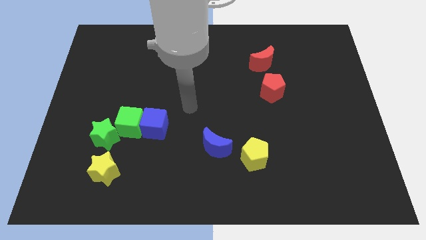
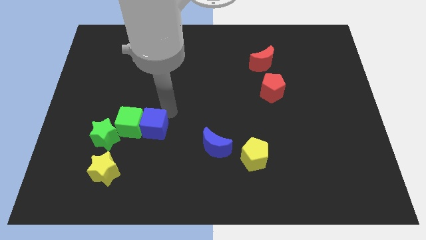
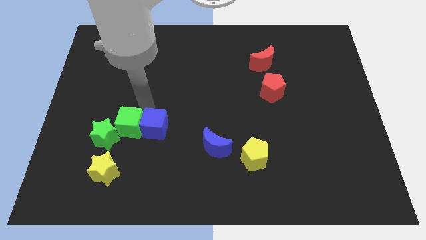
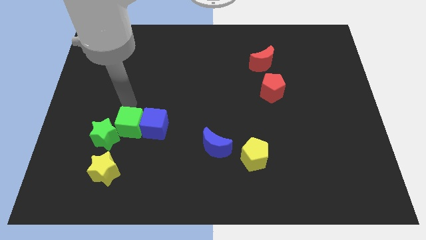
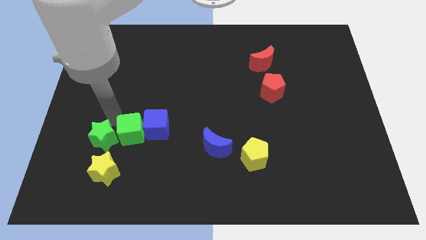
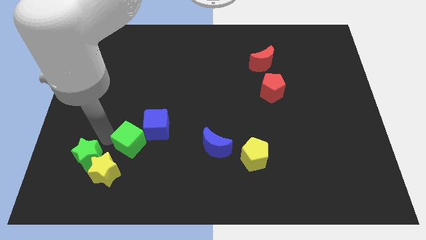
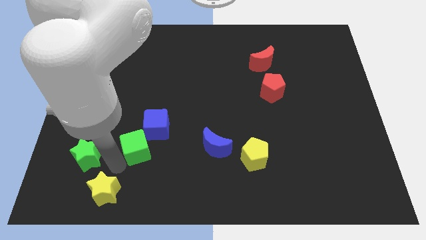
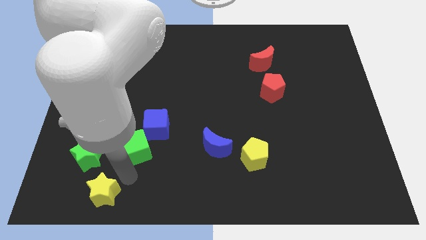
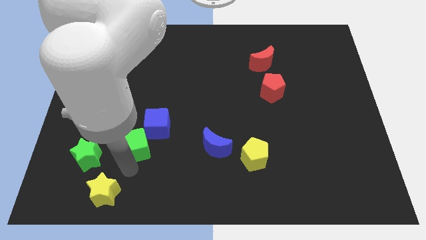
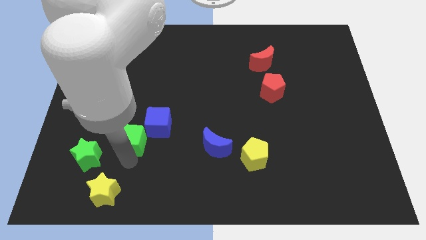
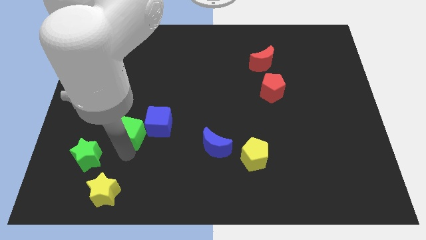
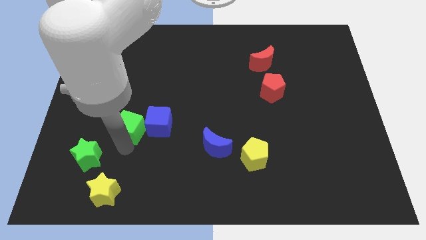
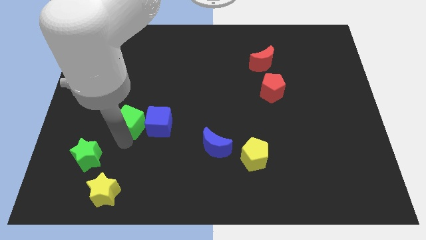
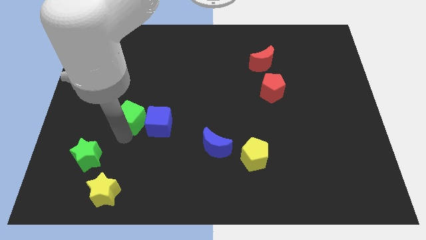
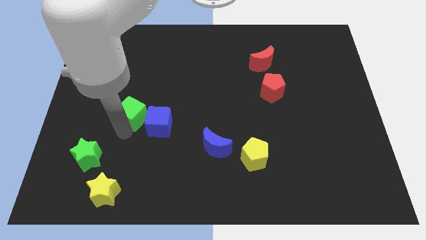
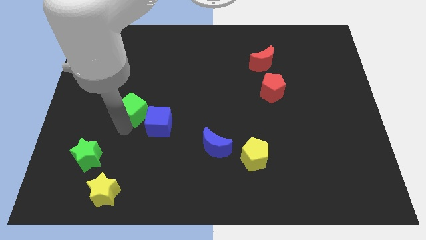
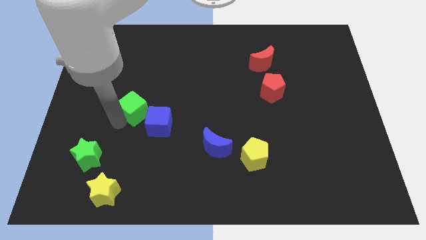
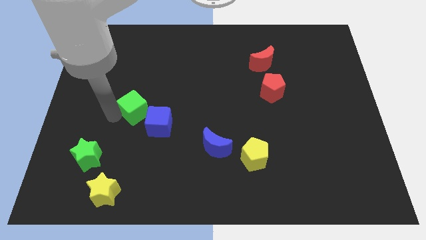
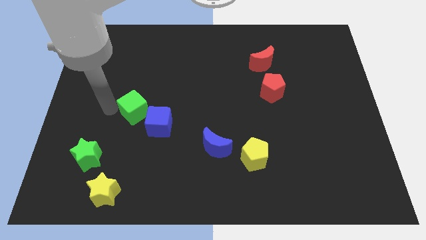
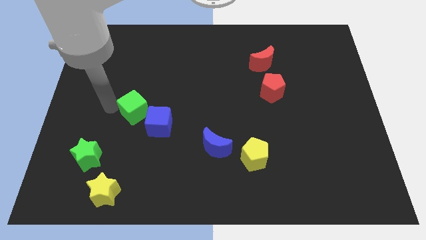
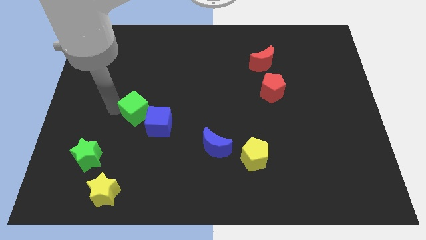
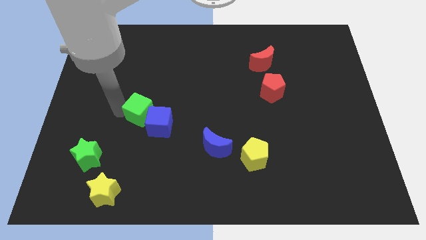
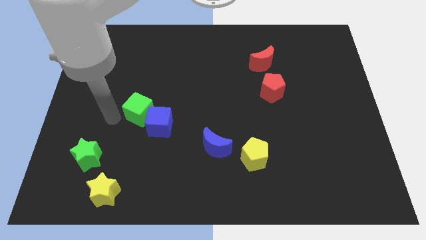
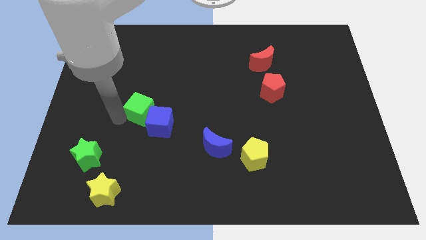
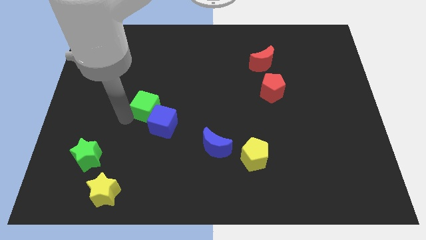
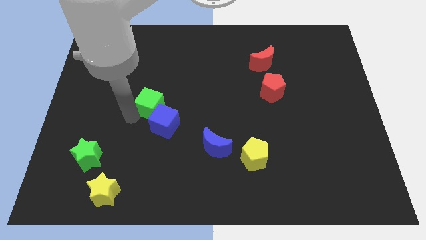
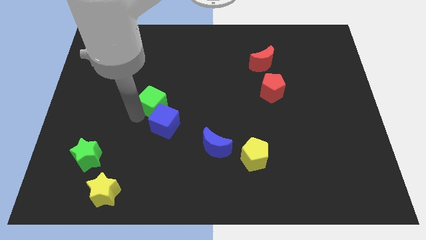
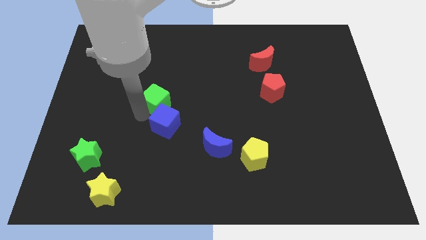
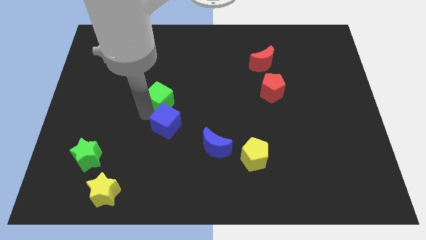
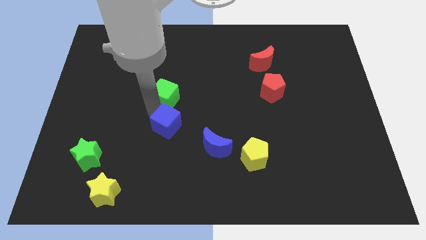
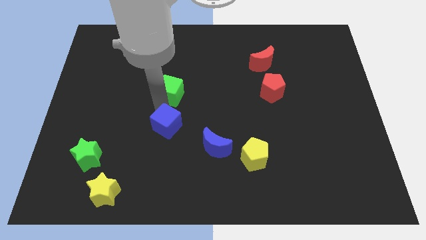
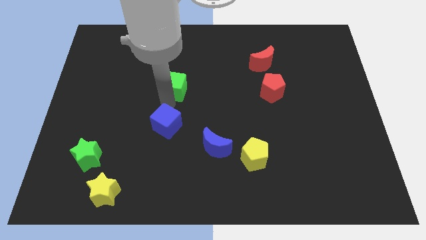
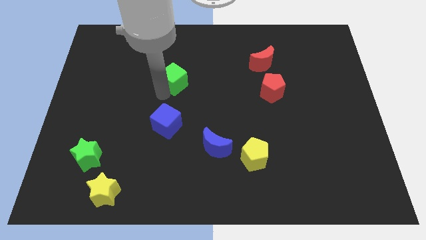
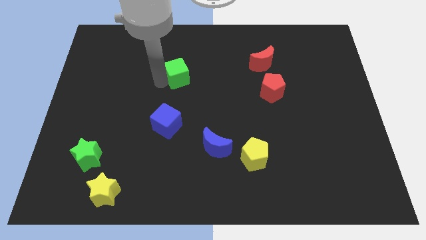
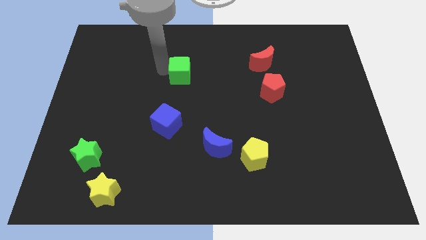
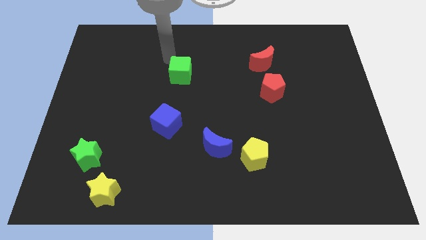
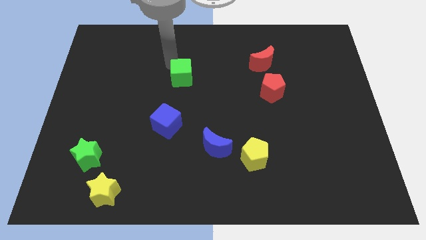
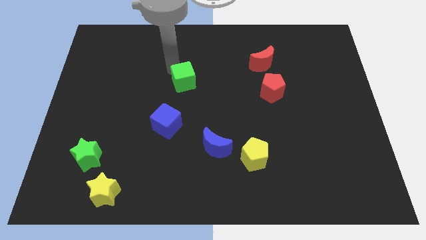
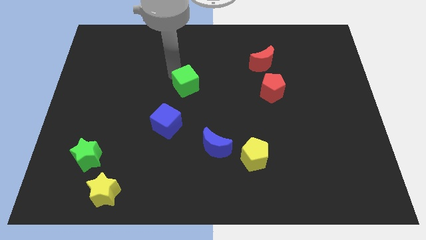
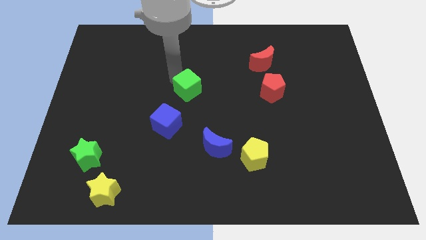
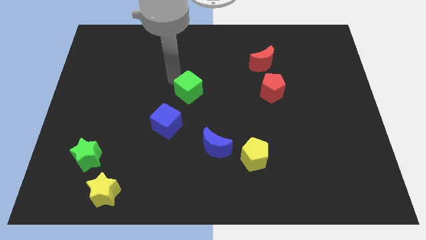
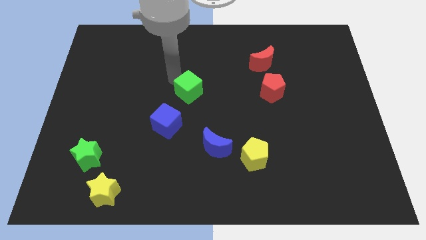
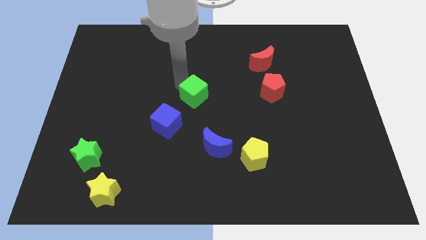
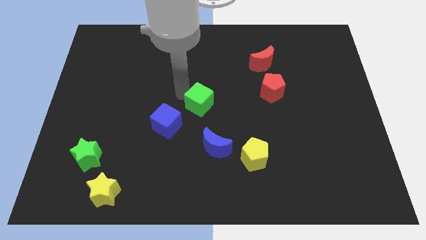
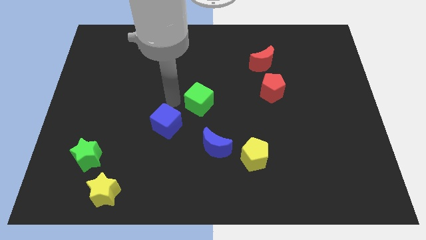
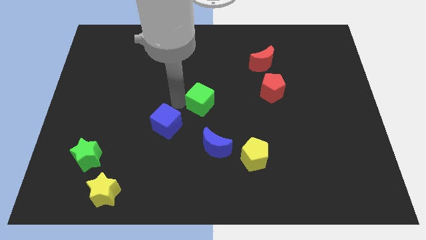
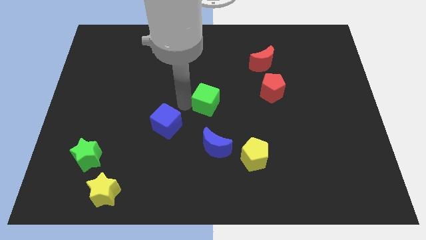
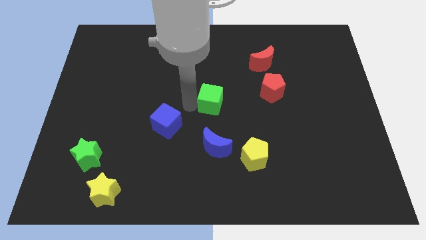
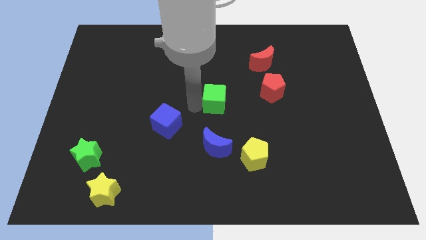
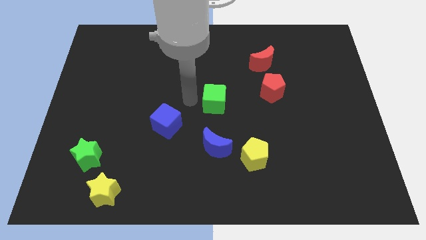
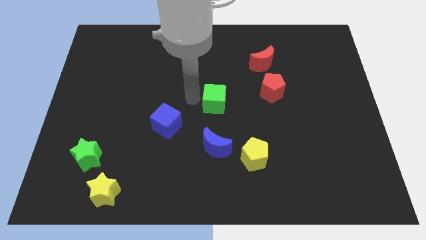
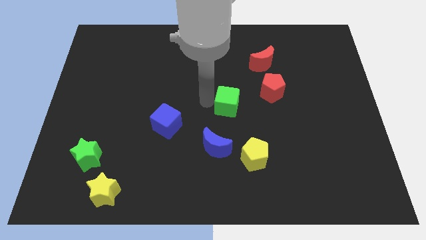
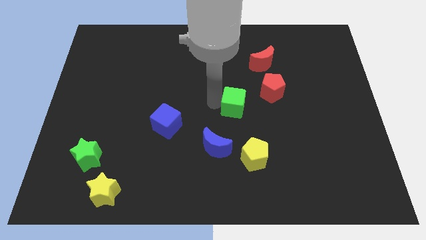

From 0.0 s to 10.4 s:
move the green cube diagonally down and to the left of the red pentagon

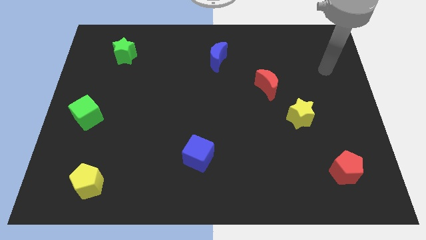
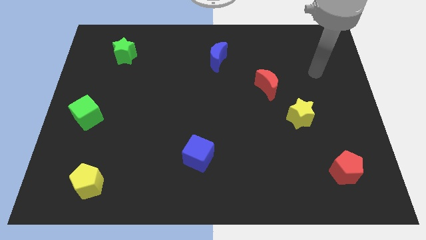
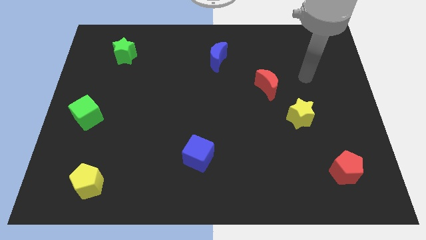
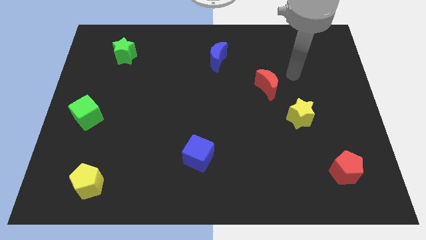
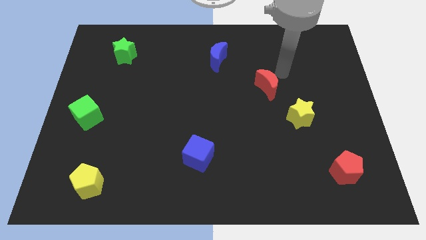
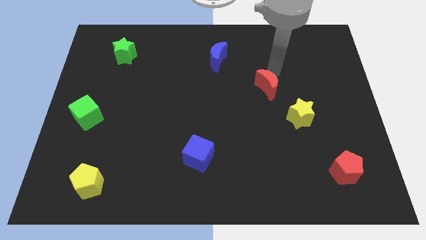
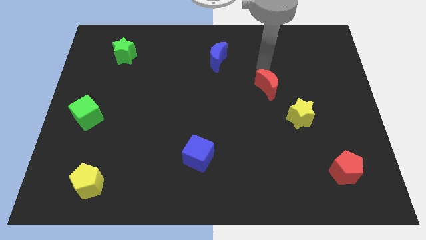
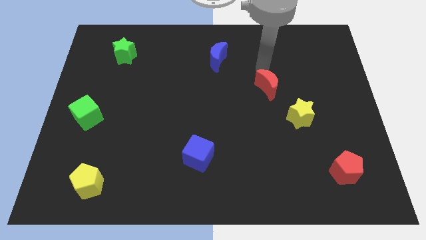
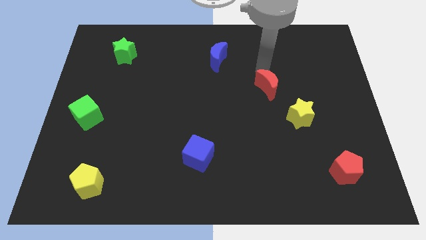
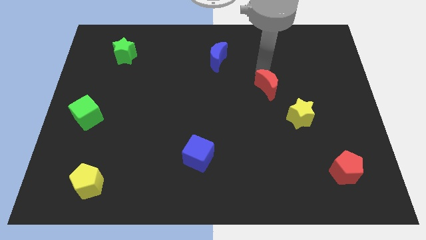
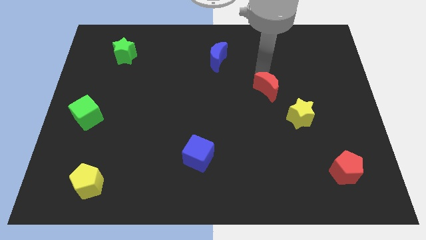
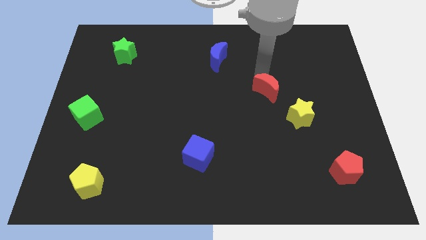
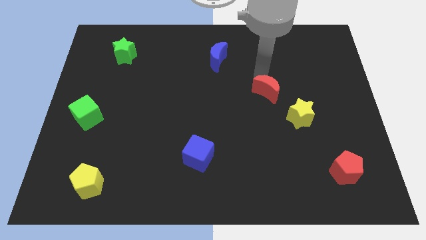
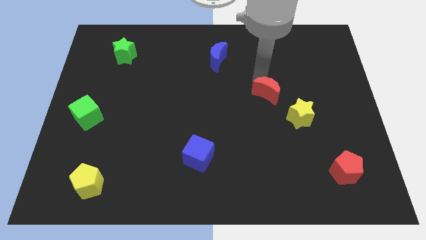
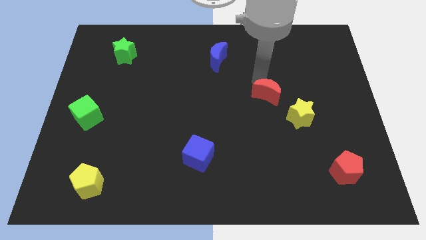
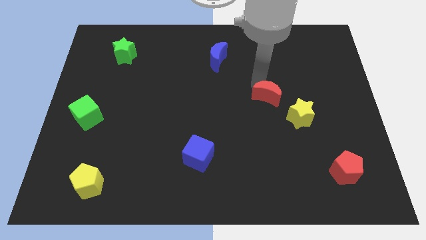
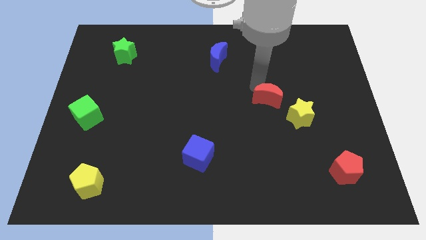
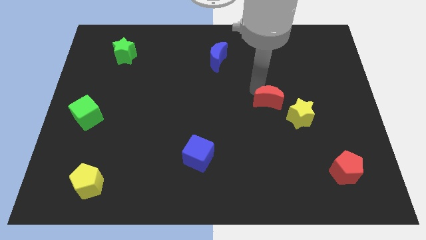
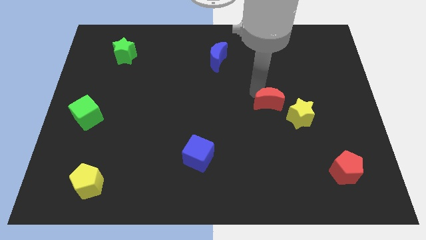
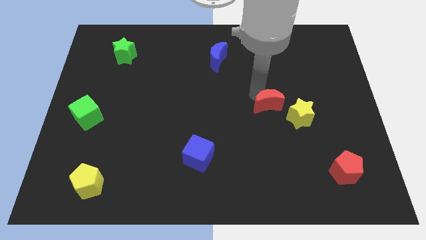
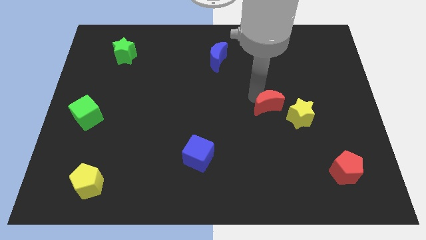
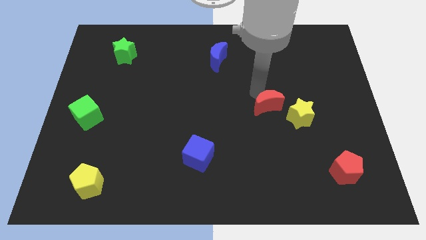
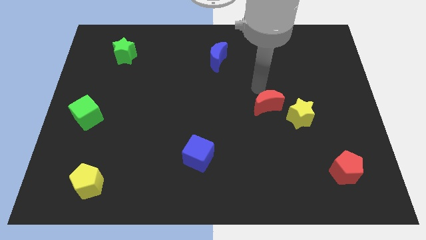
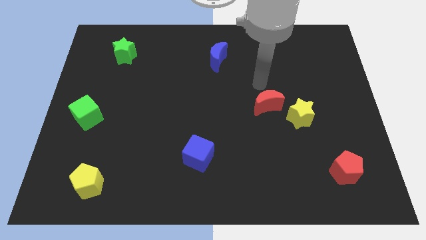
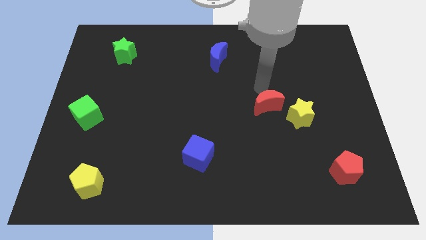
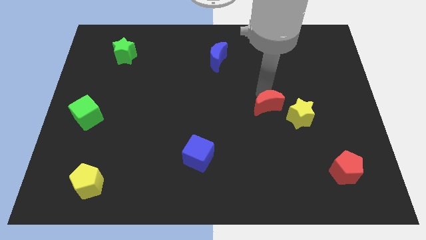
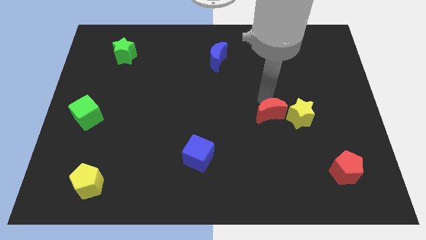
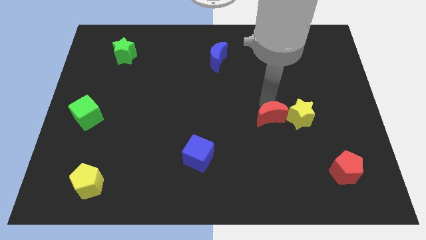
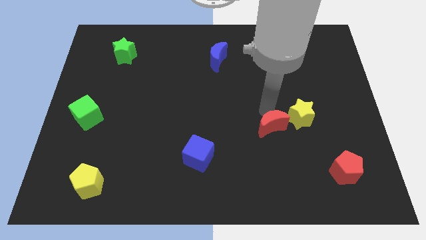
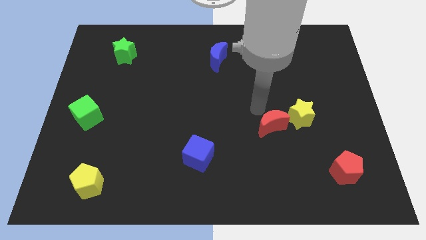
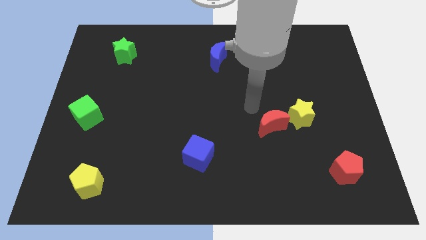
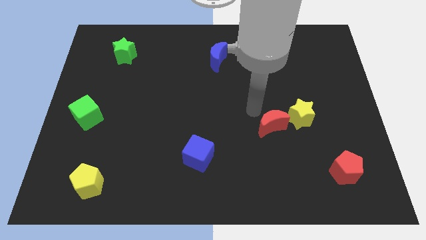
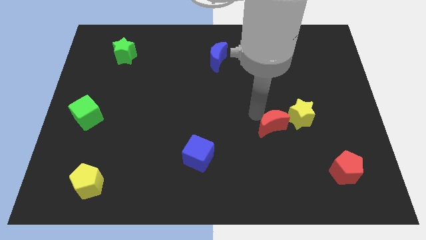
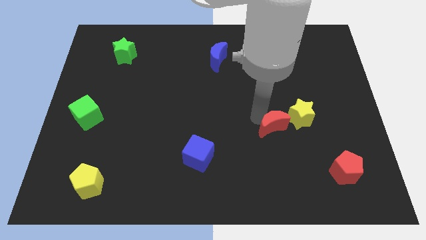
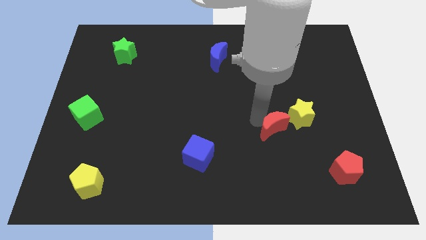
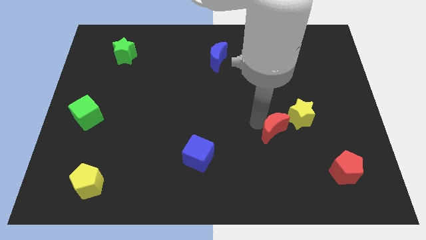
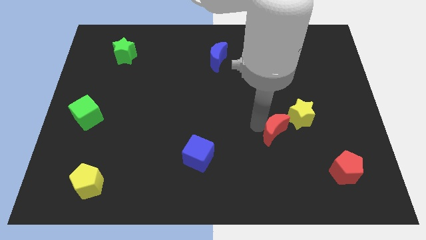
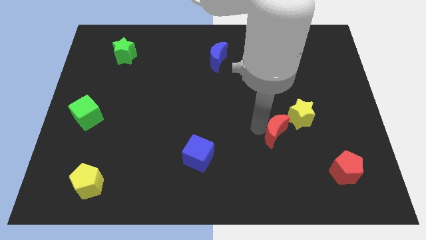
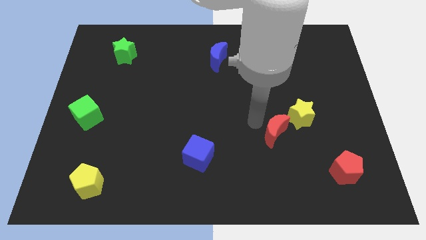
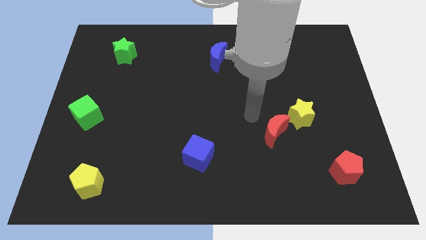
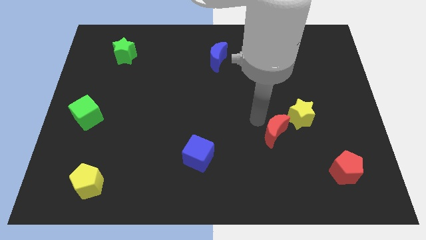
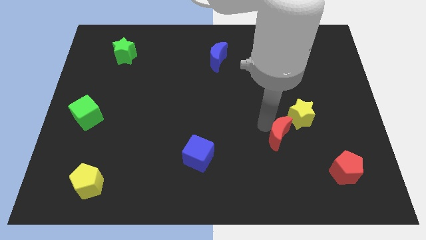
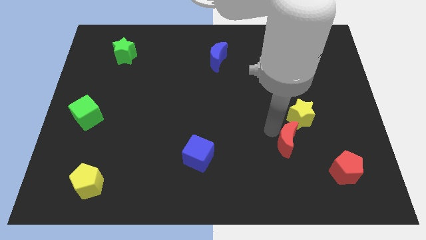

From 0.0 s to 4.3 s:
move the red moon to the bottom side of the yellow star
